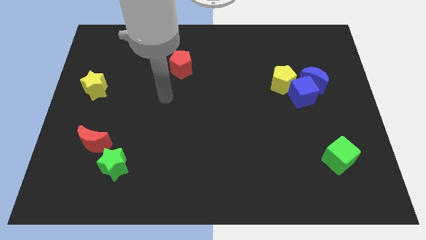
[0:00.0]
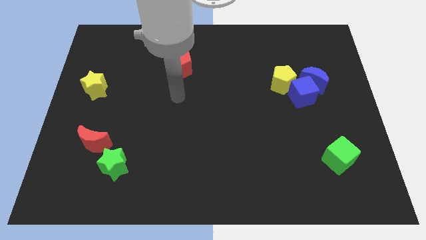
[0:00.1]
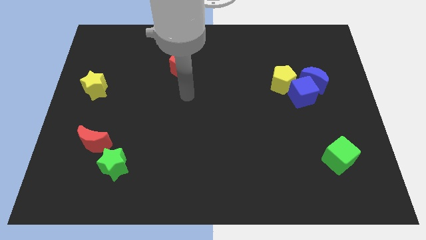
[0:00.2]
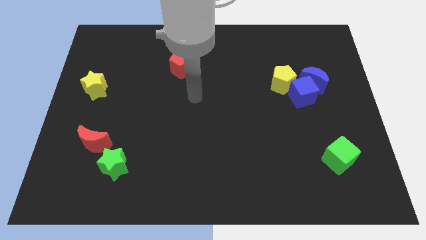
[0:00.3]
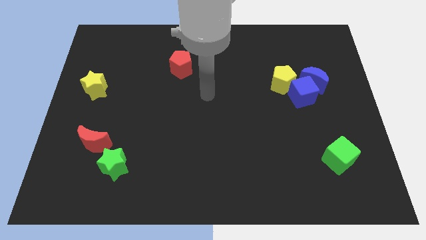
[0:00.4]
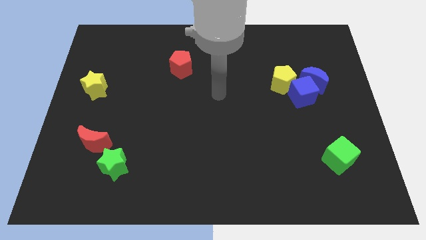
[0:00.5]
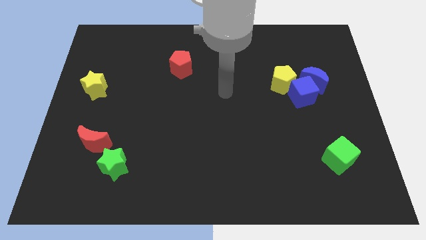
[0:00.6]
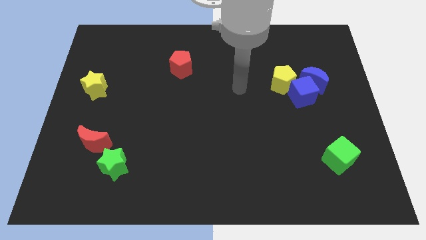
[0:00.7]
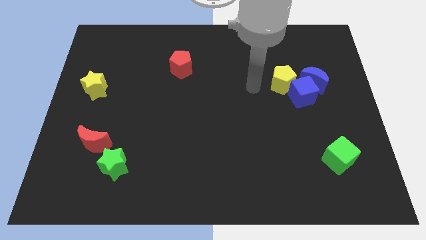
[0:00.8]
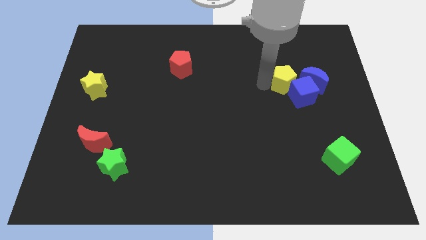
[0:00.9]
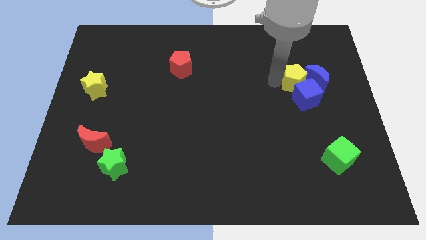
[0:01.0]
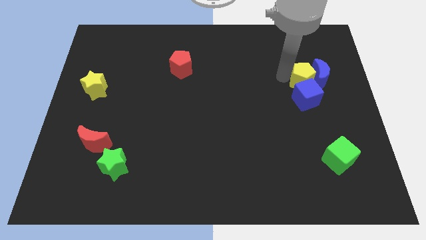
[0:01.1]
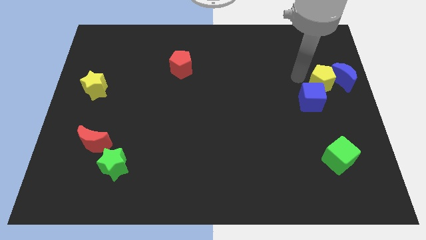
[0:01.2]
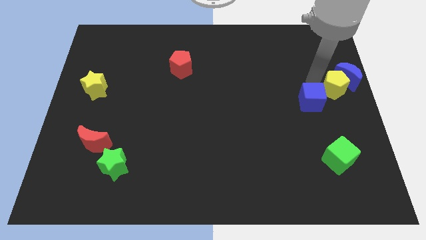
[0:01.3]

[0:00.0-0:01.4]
pull the blue cube apart from the blue moon and yellow pentagon

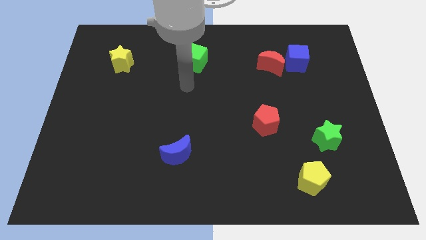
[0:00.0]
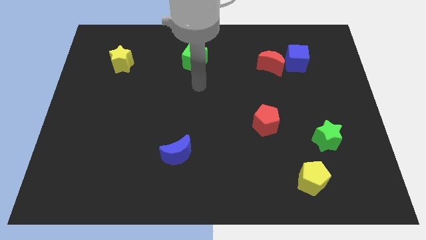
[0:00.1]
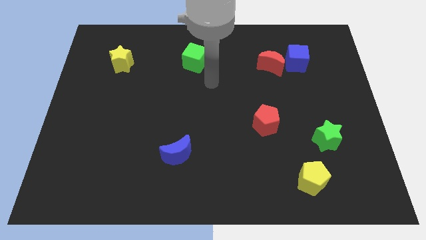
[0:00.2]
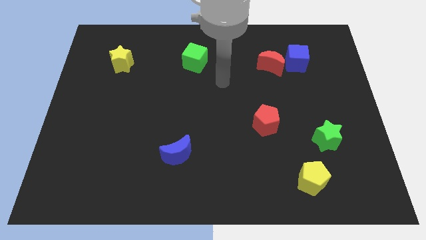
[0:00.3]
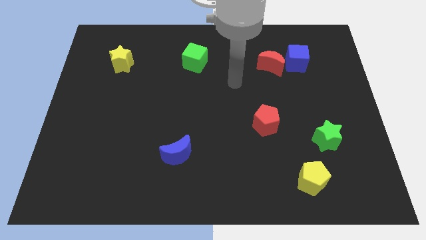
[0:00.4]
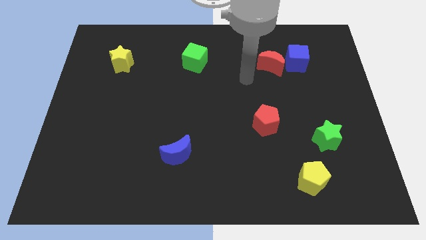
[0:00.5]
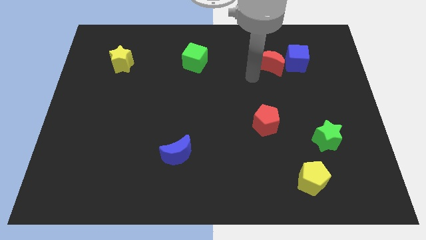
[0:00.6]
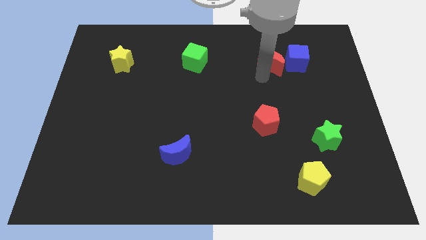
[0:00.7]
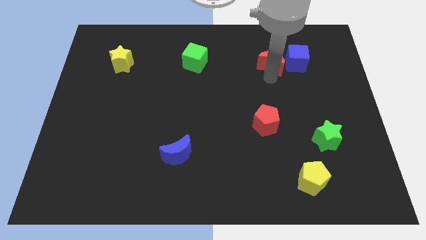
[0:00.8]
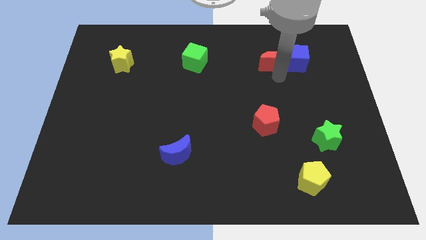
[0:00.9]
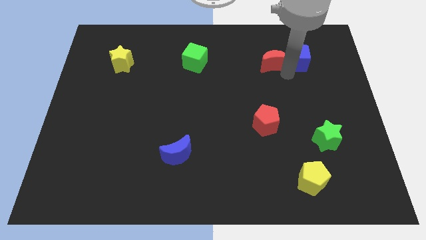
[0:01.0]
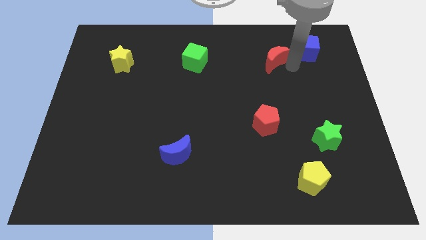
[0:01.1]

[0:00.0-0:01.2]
move the red moon away from the blue cube

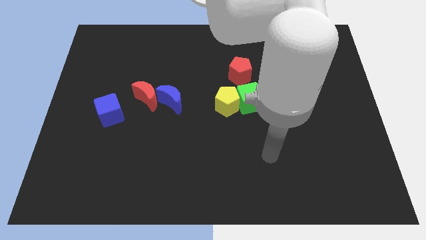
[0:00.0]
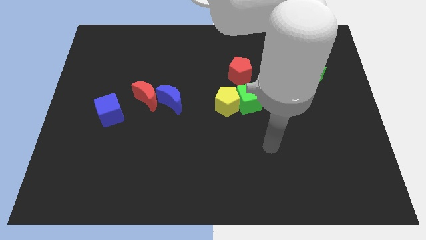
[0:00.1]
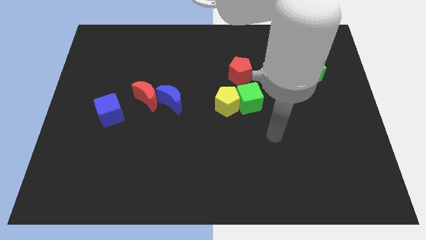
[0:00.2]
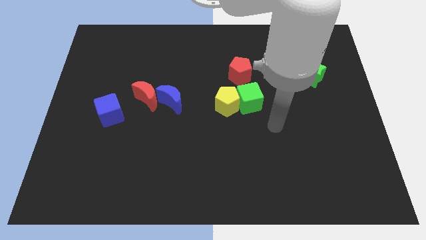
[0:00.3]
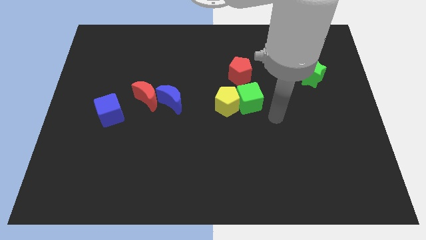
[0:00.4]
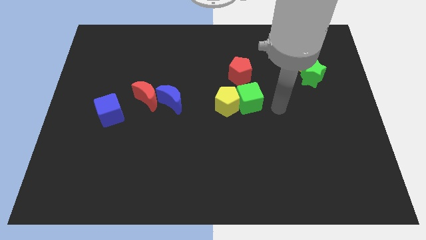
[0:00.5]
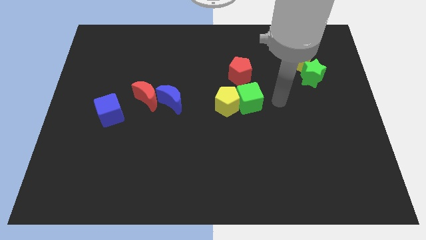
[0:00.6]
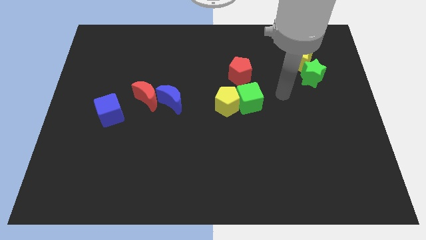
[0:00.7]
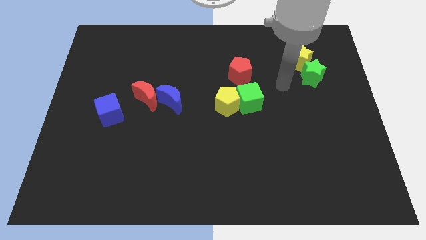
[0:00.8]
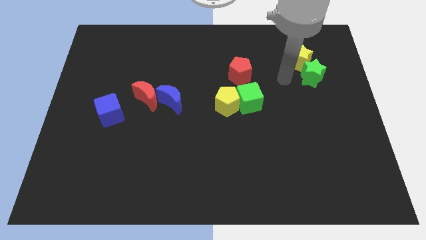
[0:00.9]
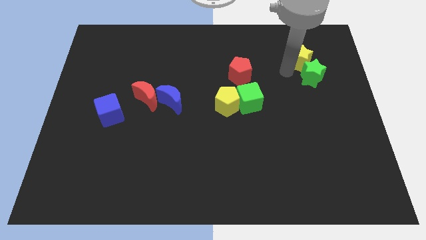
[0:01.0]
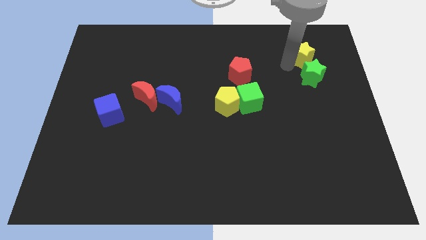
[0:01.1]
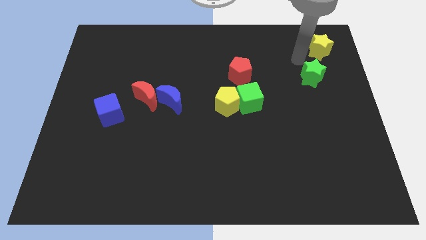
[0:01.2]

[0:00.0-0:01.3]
pull the green star apart from the yellow star

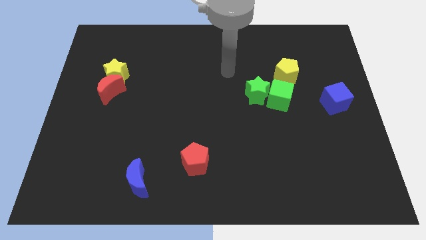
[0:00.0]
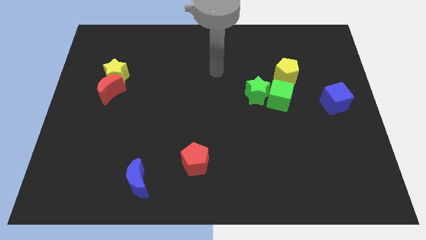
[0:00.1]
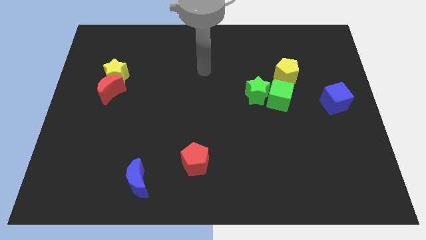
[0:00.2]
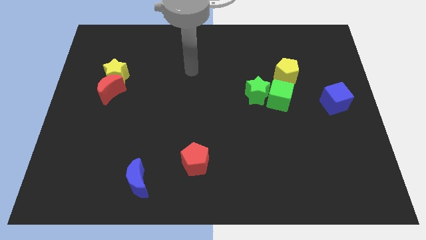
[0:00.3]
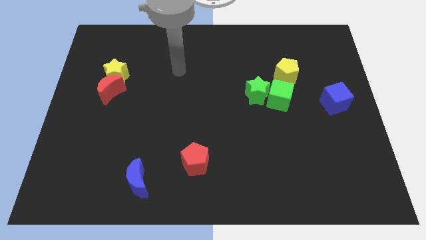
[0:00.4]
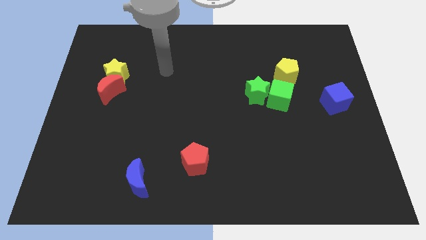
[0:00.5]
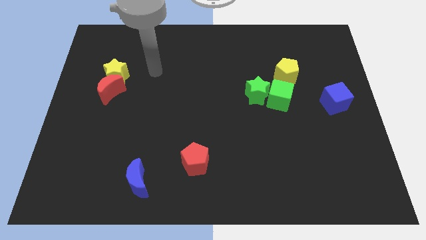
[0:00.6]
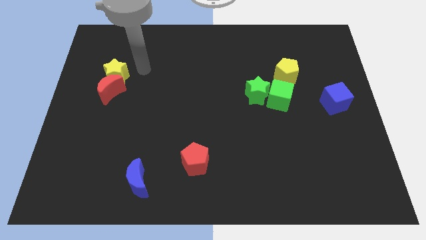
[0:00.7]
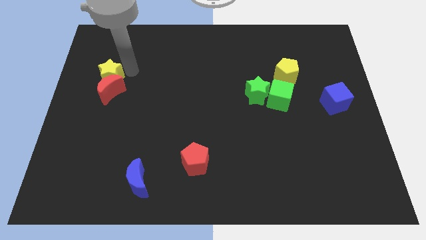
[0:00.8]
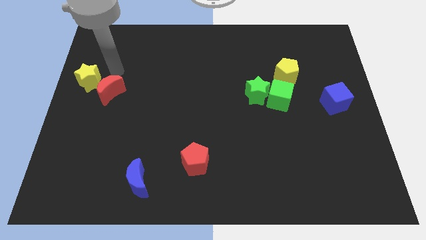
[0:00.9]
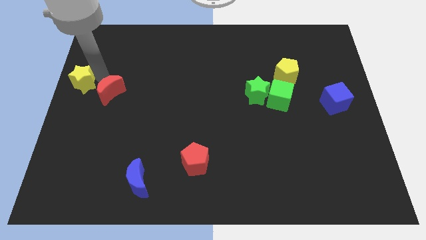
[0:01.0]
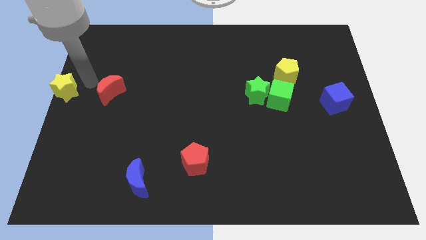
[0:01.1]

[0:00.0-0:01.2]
pull the red moon apart from the yellow star

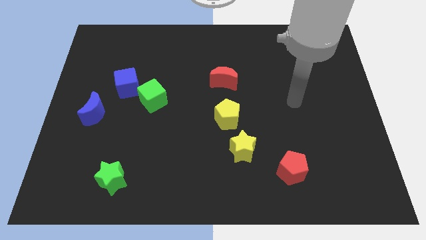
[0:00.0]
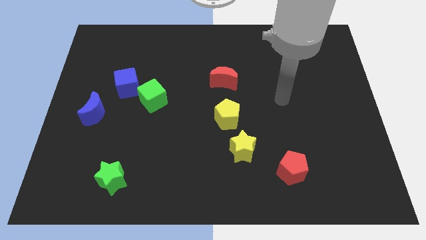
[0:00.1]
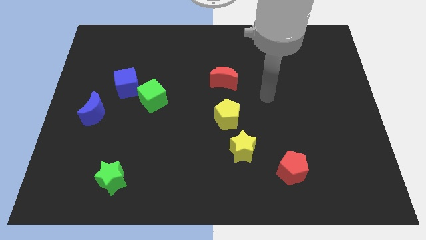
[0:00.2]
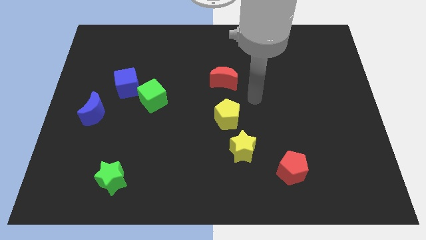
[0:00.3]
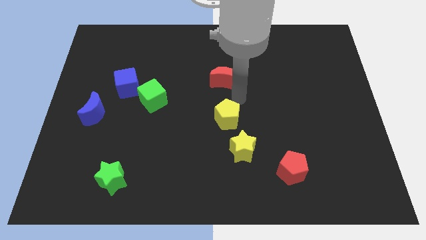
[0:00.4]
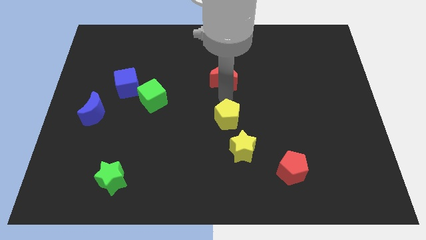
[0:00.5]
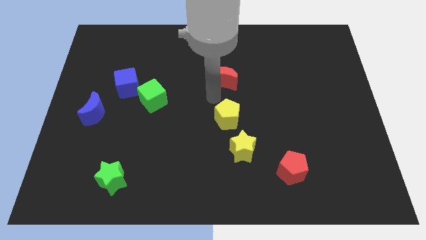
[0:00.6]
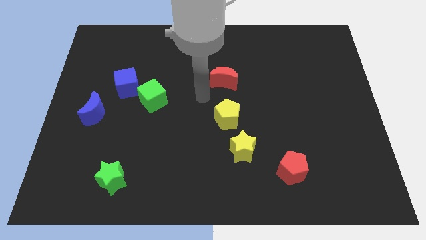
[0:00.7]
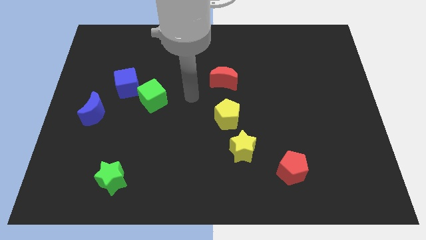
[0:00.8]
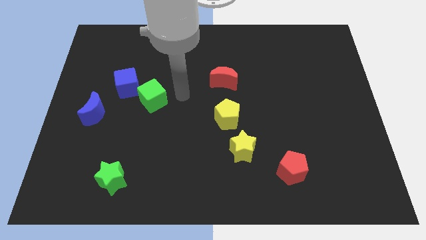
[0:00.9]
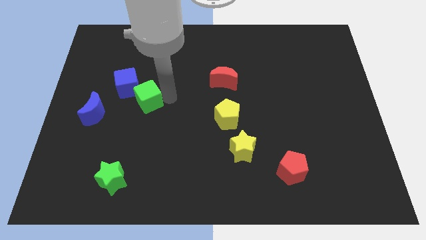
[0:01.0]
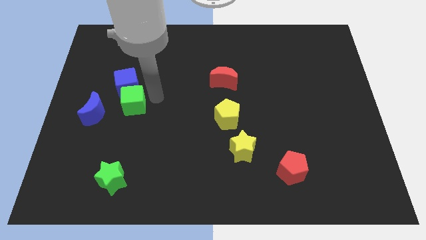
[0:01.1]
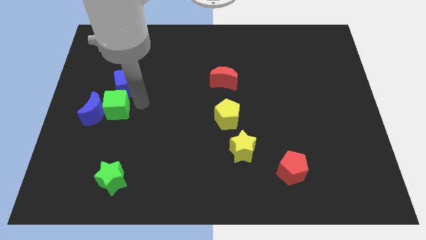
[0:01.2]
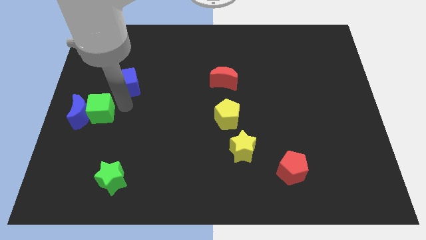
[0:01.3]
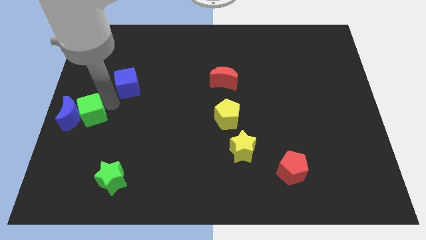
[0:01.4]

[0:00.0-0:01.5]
pull the blue cube apart from the green cube

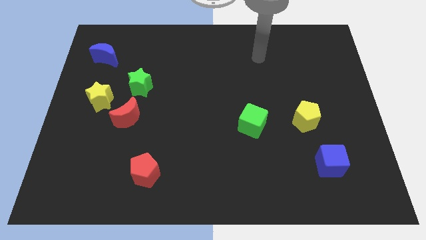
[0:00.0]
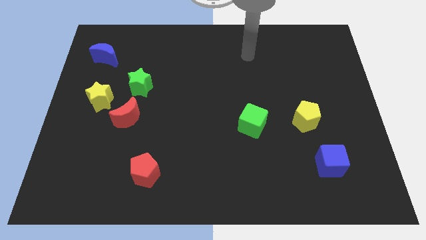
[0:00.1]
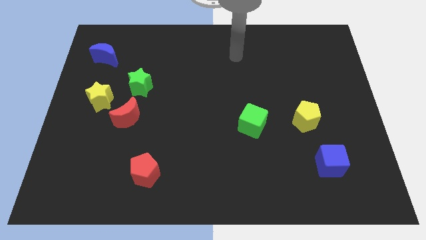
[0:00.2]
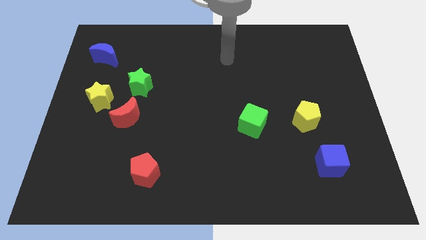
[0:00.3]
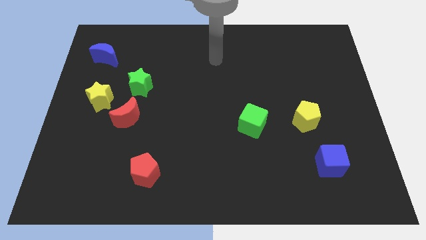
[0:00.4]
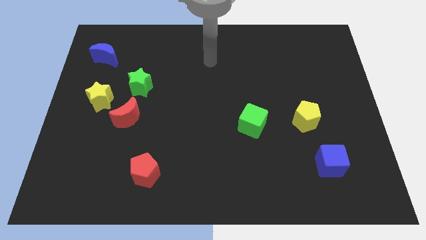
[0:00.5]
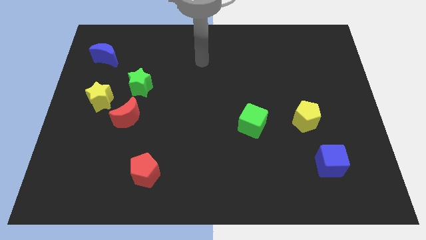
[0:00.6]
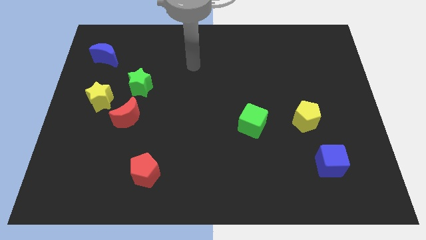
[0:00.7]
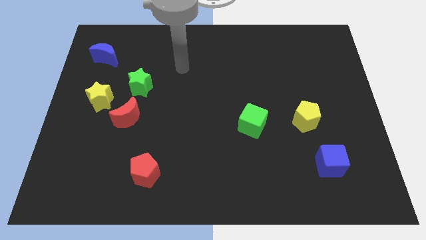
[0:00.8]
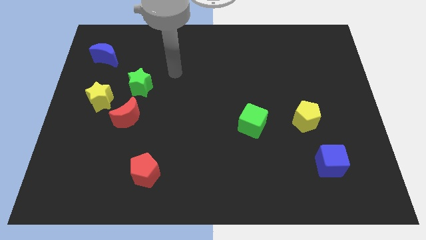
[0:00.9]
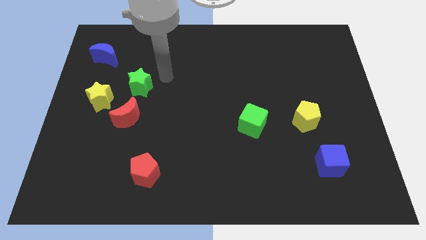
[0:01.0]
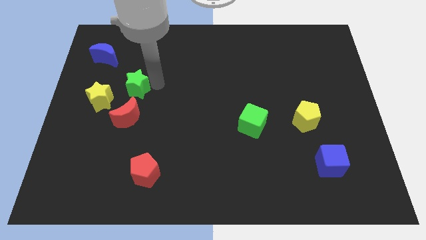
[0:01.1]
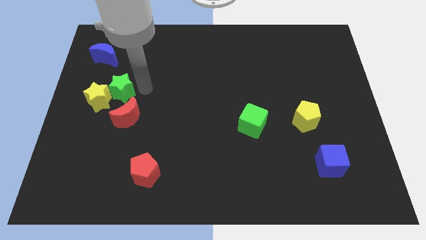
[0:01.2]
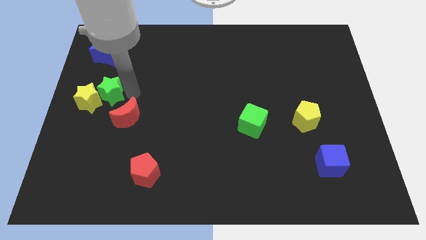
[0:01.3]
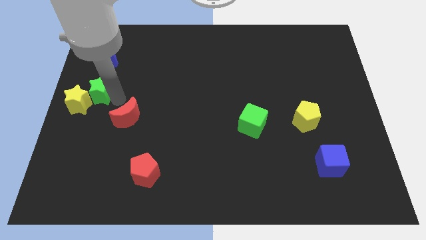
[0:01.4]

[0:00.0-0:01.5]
move the red moon away from the yellow star and green star

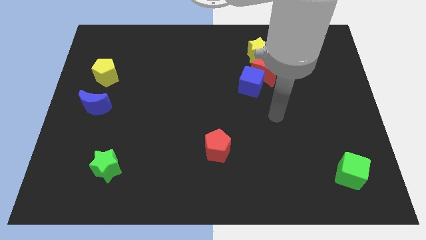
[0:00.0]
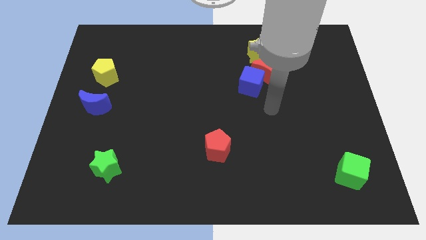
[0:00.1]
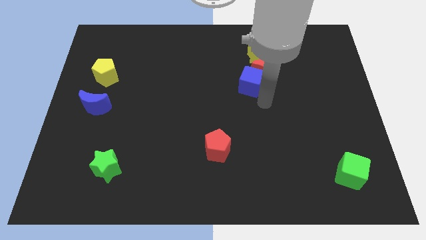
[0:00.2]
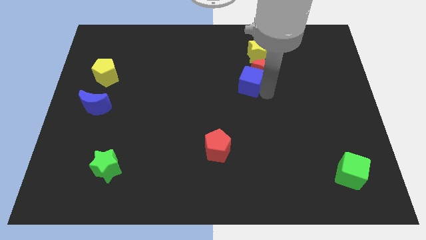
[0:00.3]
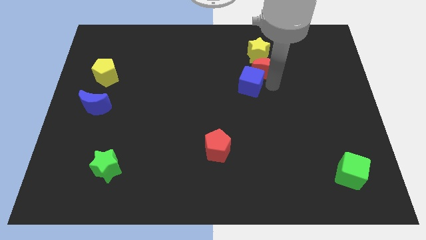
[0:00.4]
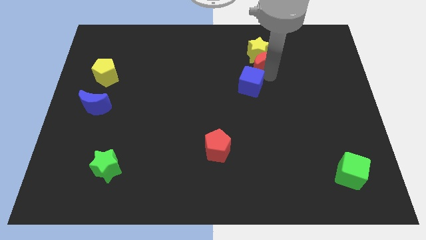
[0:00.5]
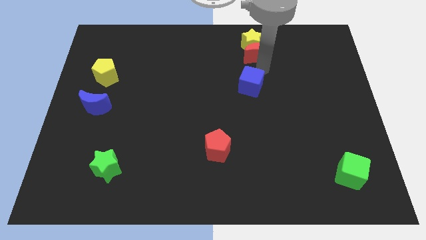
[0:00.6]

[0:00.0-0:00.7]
pull the blue cube apart from the red moon

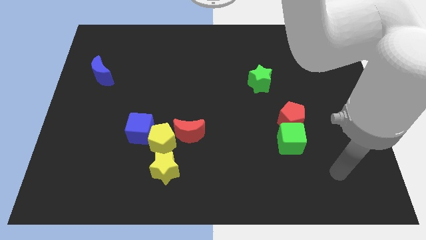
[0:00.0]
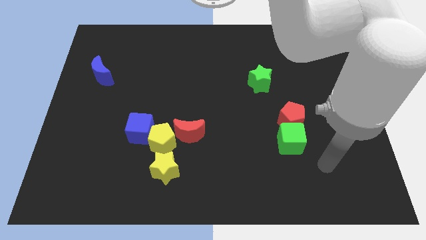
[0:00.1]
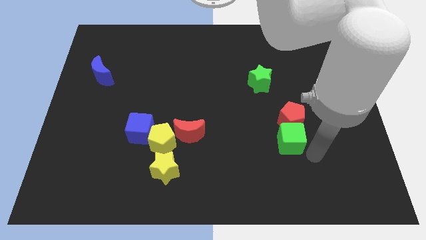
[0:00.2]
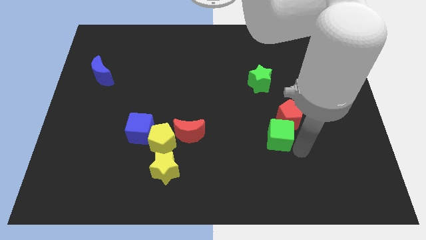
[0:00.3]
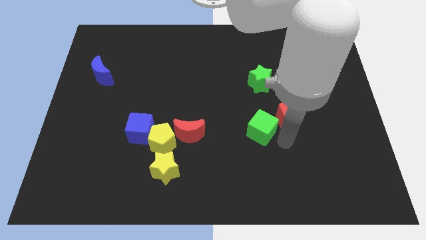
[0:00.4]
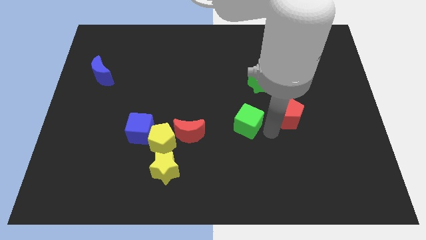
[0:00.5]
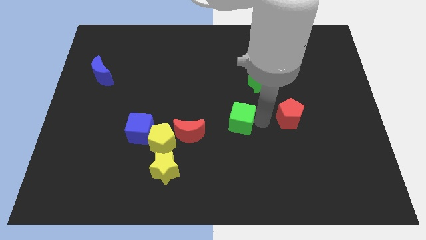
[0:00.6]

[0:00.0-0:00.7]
move the red pentagon away from the green cube

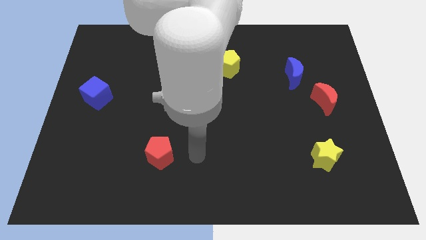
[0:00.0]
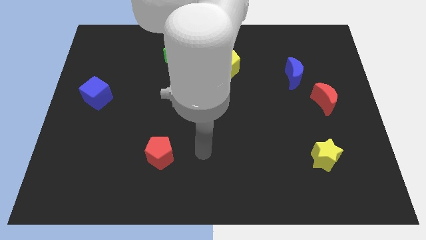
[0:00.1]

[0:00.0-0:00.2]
pull the red moon apart from the blue moon
